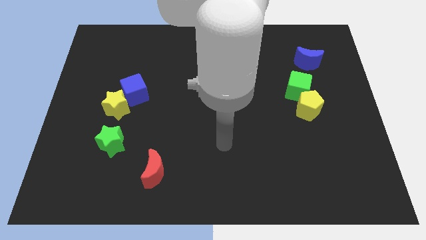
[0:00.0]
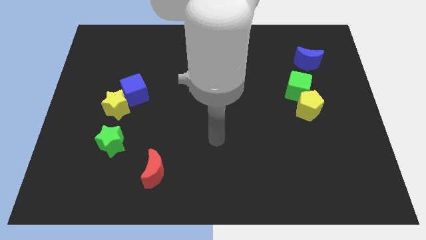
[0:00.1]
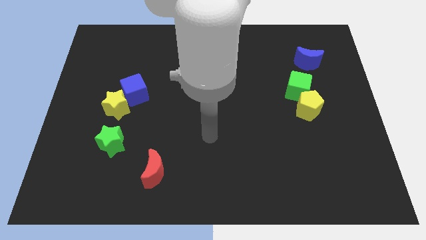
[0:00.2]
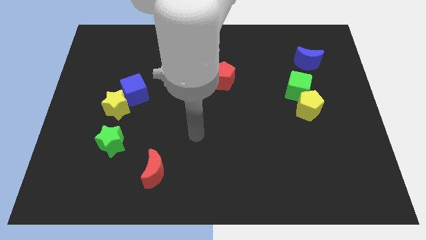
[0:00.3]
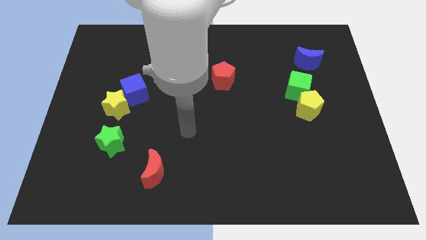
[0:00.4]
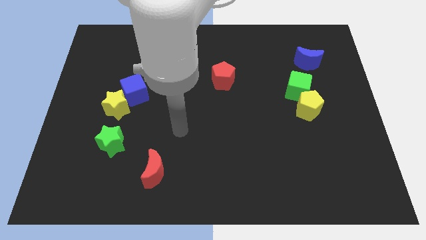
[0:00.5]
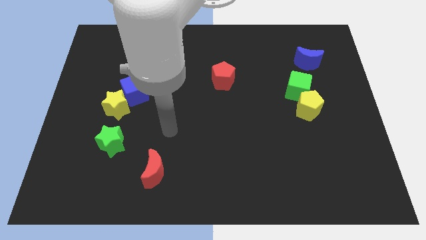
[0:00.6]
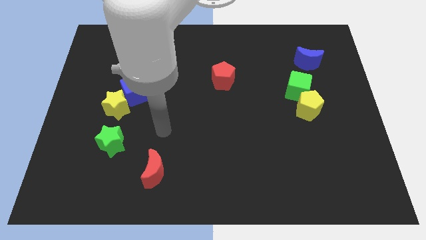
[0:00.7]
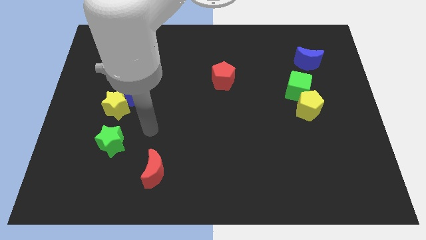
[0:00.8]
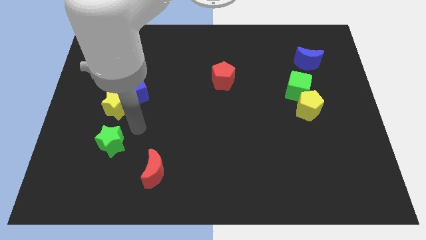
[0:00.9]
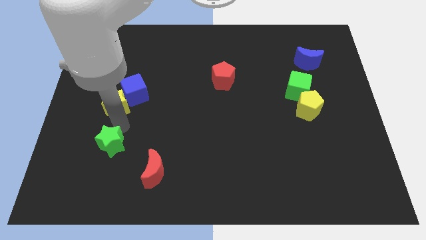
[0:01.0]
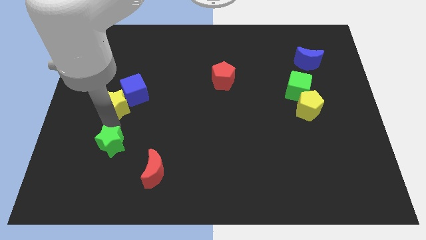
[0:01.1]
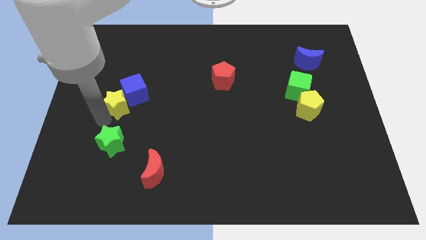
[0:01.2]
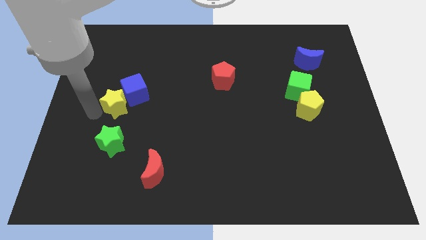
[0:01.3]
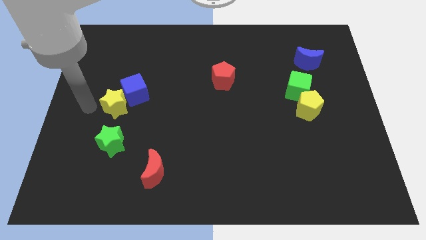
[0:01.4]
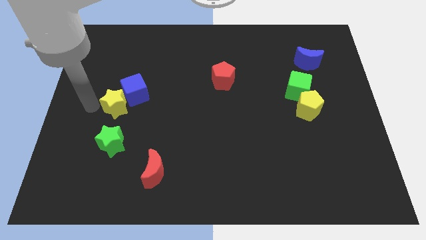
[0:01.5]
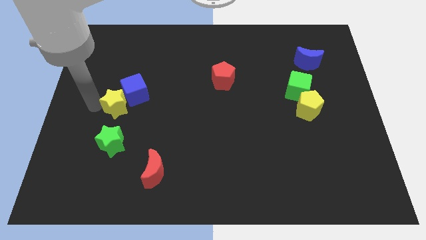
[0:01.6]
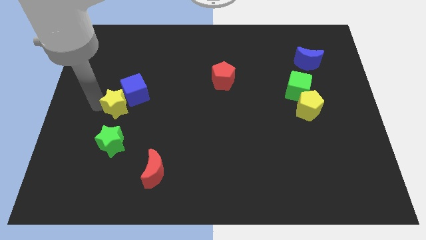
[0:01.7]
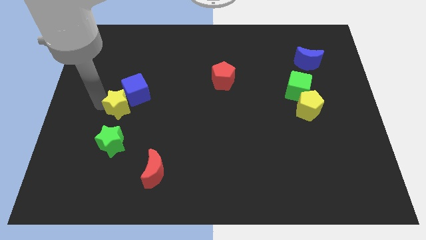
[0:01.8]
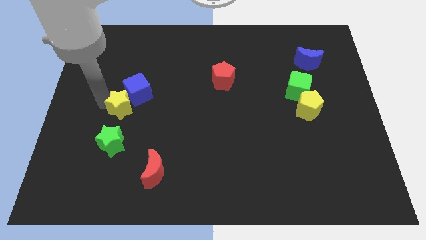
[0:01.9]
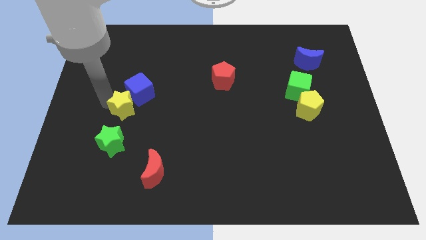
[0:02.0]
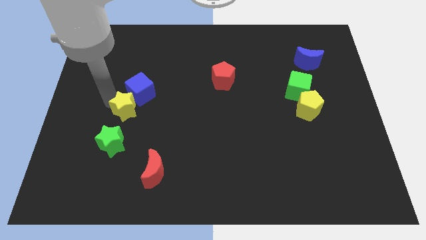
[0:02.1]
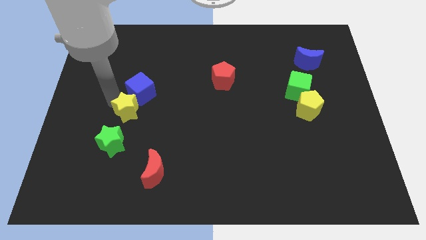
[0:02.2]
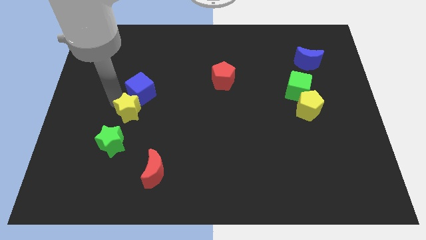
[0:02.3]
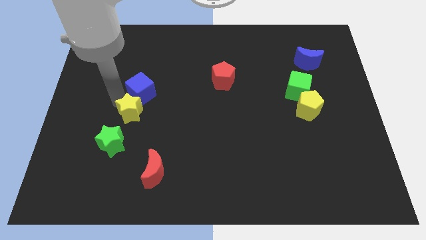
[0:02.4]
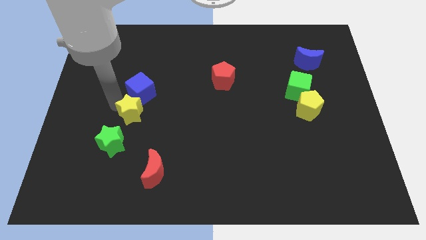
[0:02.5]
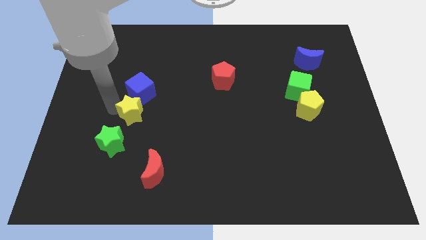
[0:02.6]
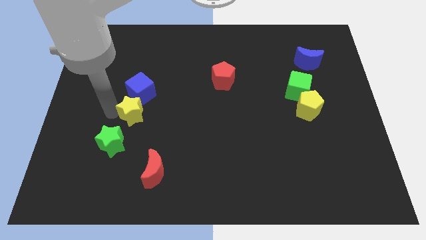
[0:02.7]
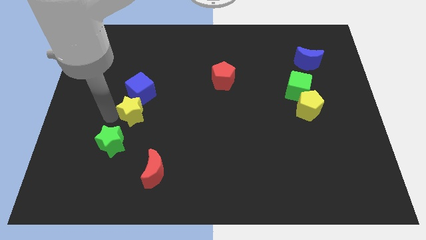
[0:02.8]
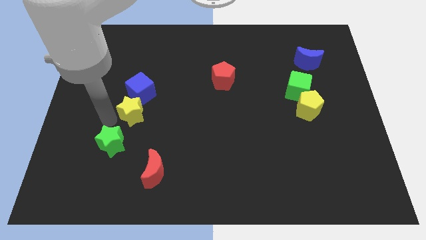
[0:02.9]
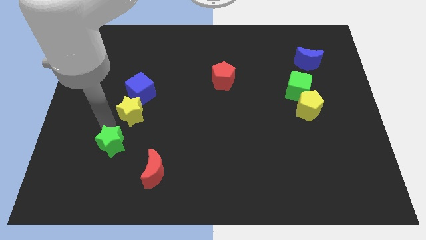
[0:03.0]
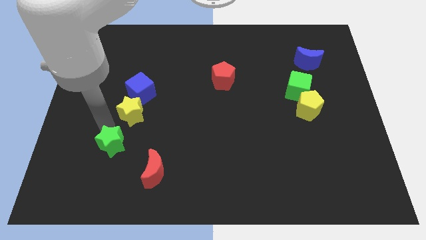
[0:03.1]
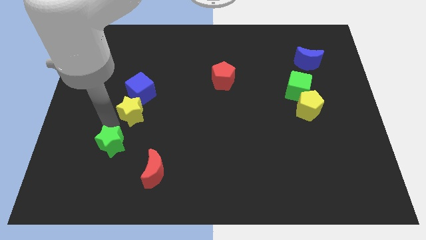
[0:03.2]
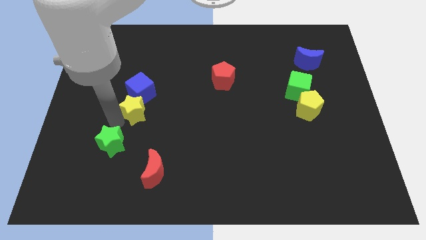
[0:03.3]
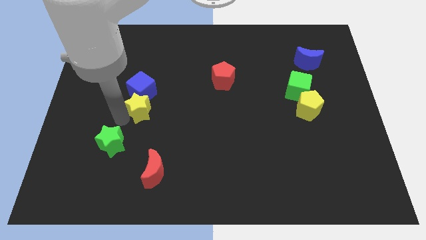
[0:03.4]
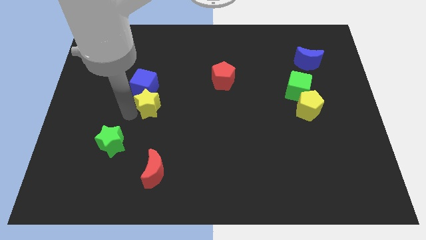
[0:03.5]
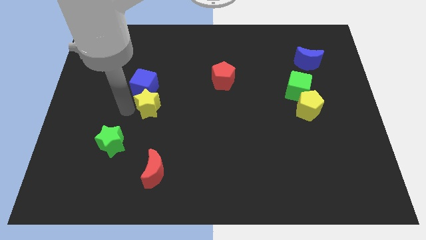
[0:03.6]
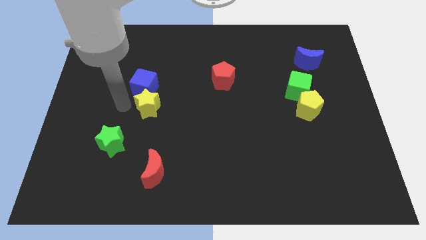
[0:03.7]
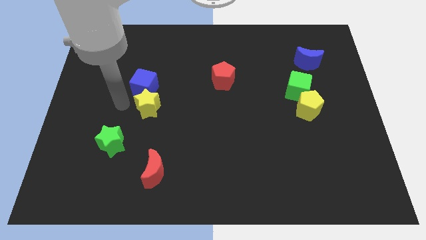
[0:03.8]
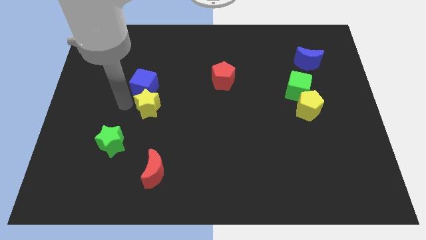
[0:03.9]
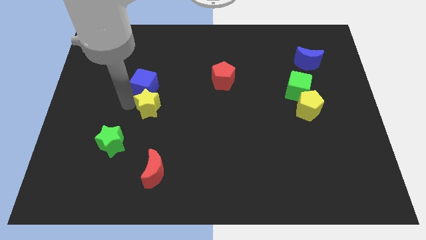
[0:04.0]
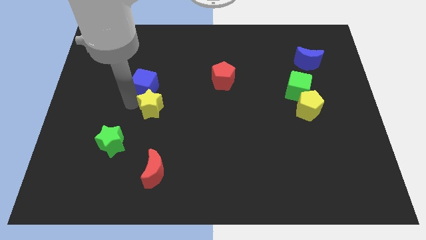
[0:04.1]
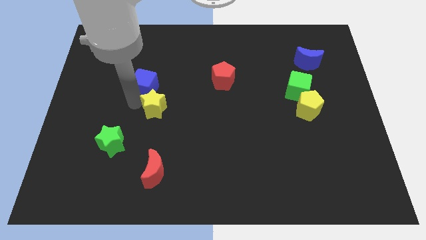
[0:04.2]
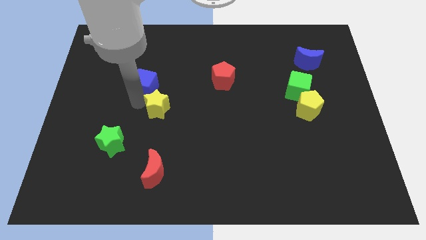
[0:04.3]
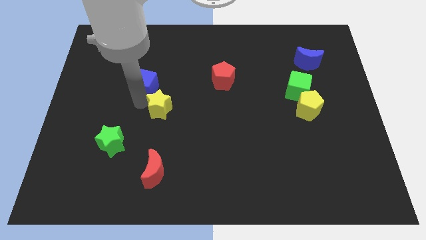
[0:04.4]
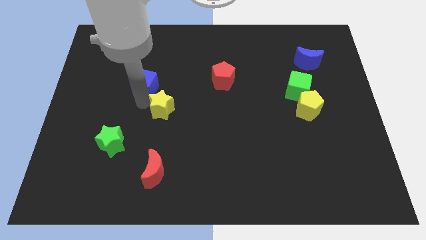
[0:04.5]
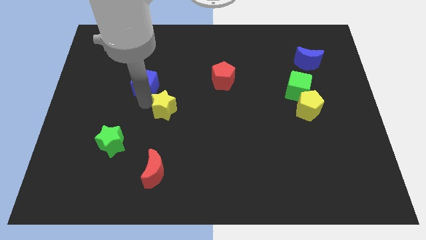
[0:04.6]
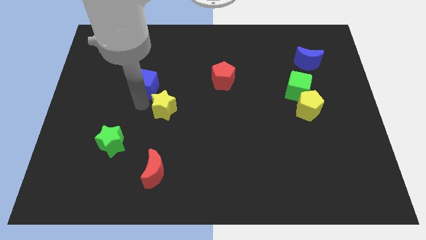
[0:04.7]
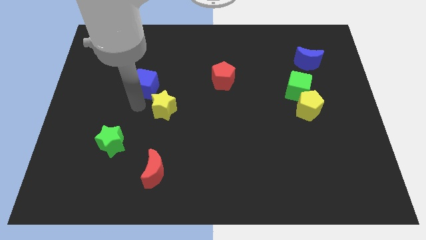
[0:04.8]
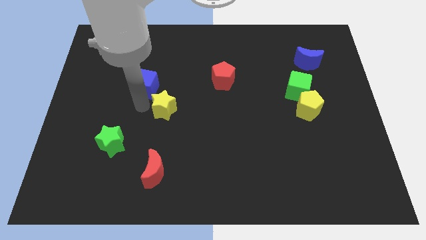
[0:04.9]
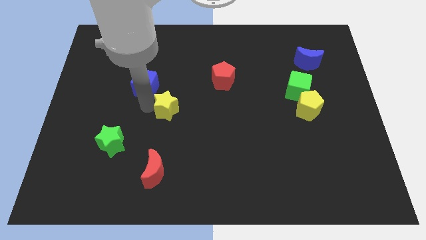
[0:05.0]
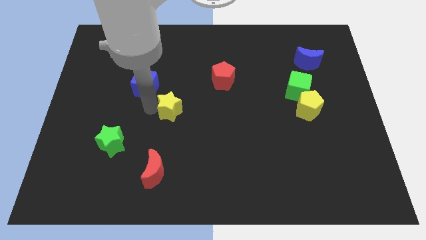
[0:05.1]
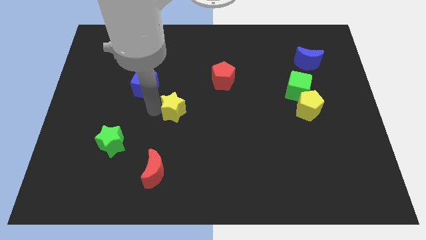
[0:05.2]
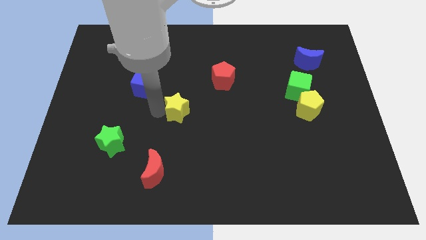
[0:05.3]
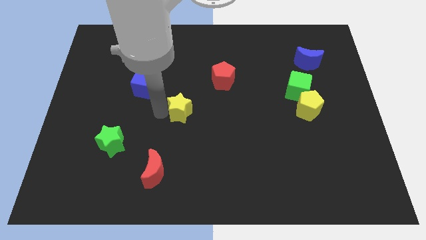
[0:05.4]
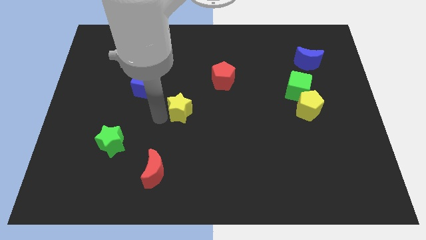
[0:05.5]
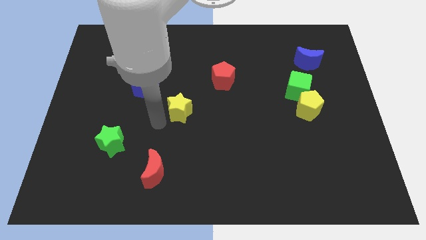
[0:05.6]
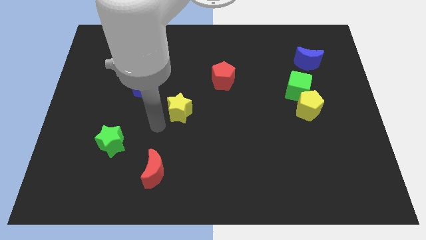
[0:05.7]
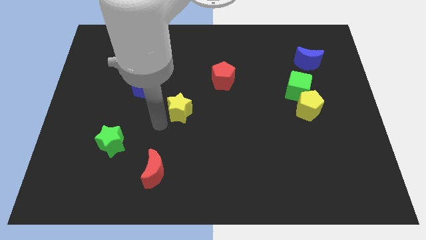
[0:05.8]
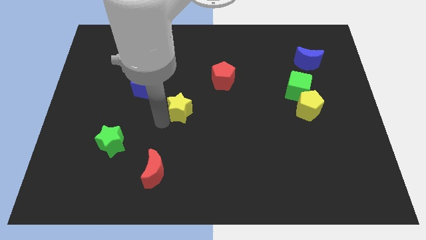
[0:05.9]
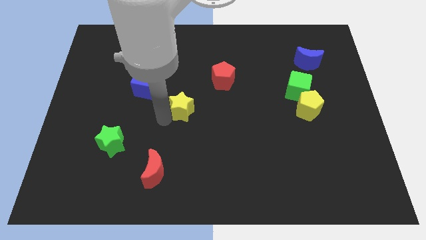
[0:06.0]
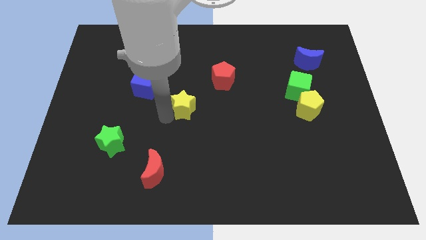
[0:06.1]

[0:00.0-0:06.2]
push the yellow star to the bottom left of the red pentagon

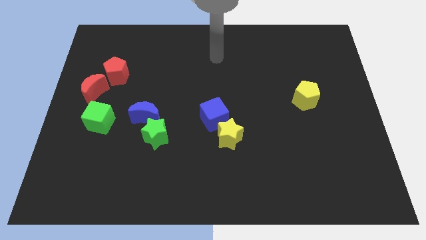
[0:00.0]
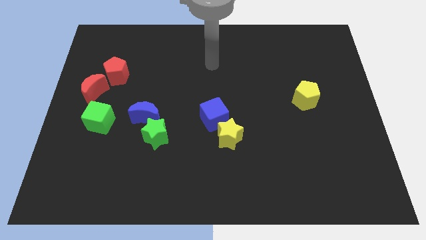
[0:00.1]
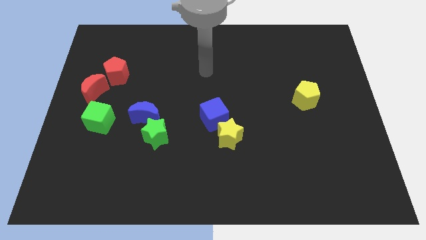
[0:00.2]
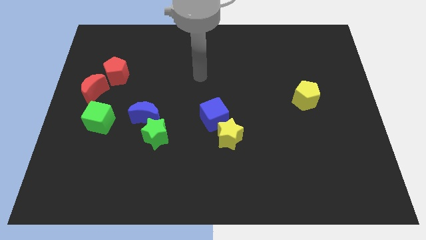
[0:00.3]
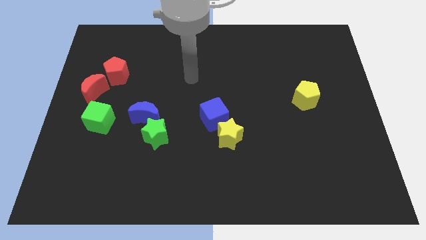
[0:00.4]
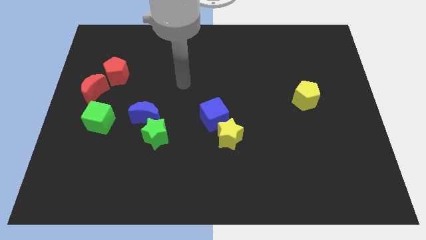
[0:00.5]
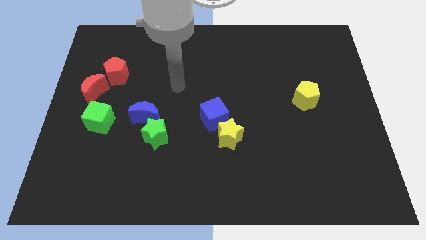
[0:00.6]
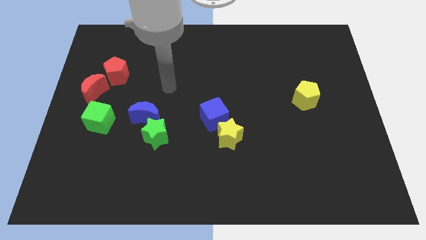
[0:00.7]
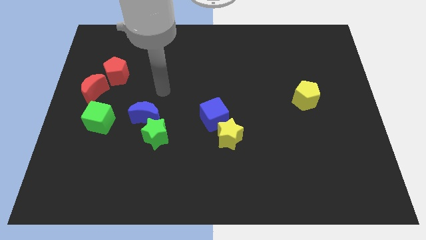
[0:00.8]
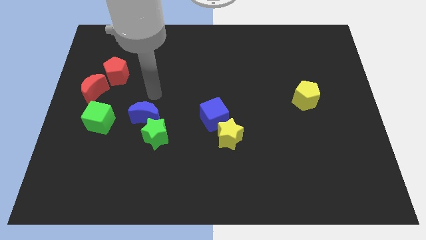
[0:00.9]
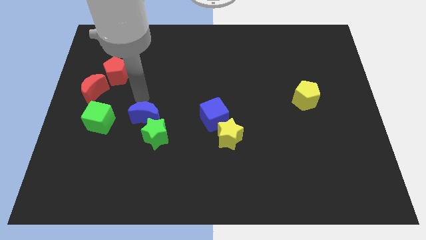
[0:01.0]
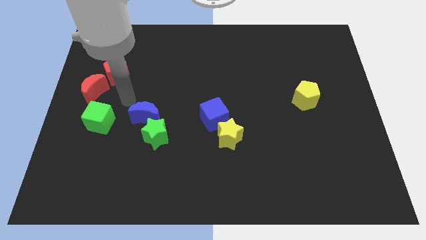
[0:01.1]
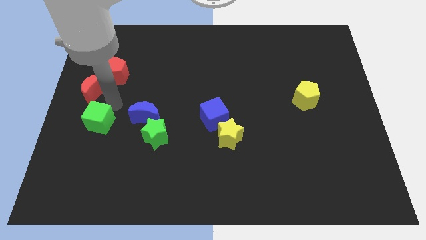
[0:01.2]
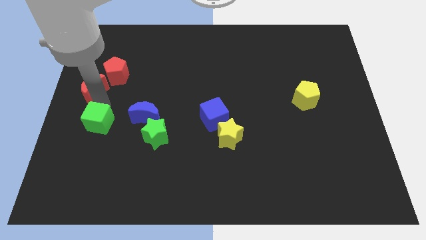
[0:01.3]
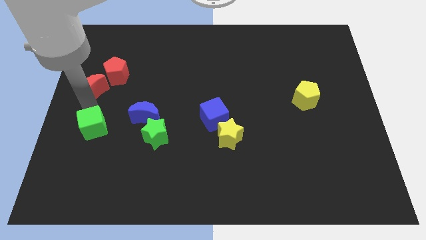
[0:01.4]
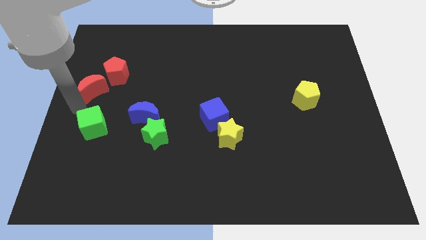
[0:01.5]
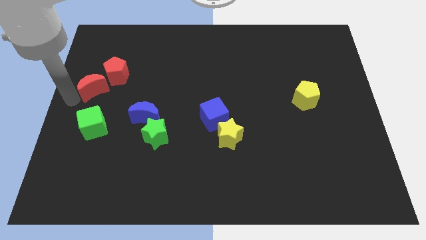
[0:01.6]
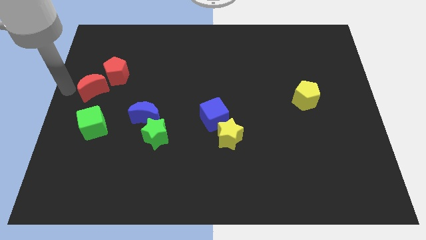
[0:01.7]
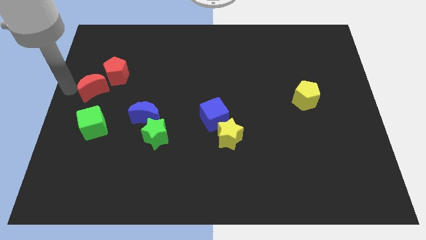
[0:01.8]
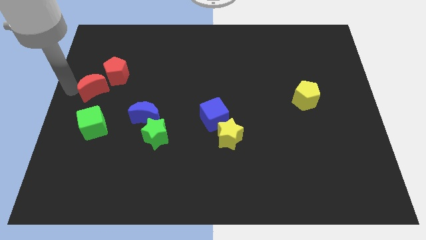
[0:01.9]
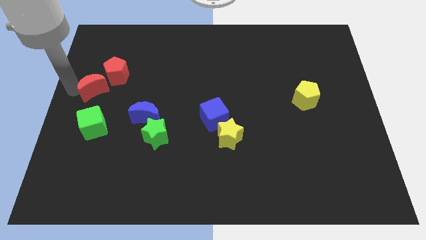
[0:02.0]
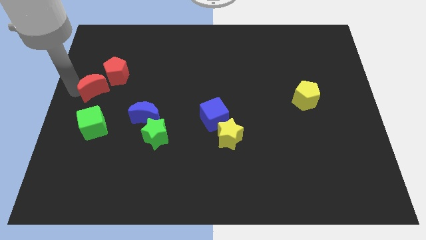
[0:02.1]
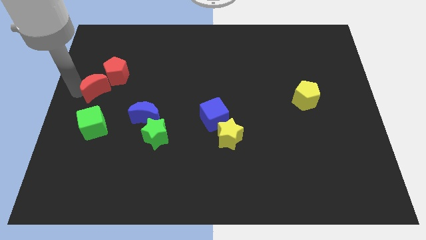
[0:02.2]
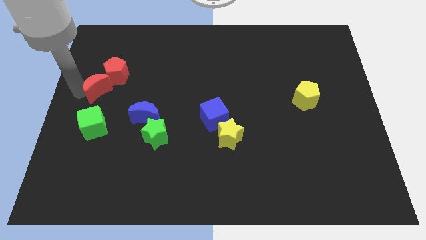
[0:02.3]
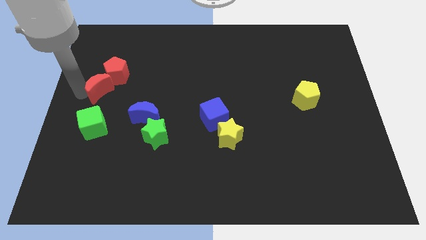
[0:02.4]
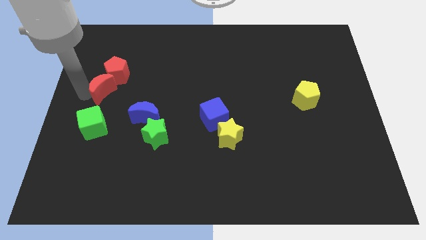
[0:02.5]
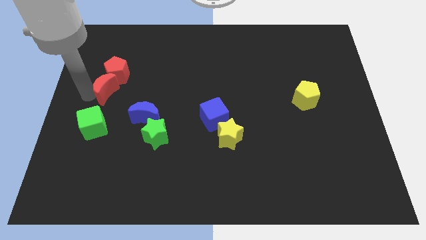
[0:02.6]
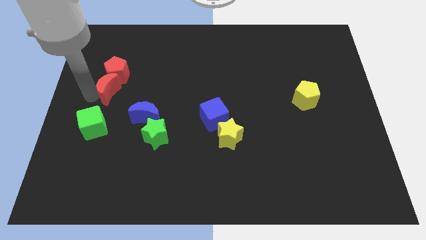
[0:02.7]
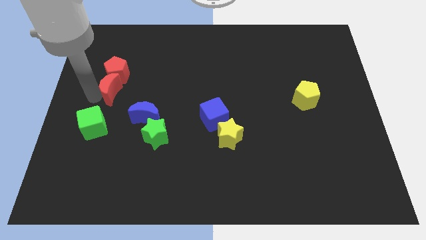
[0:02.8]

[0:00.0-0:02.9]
slide the red moon diagonally down and to the right of the red pentagon
